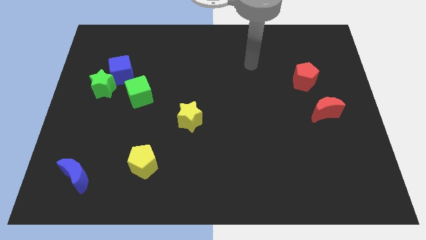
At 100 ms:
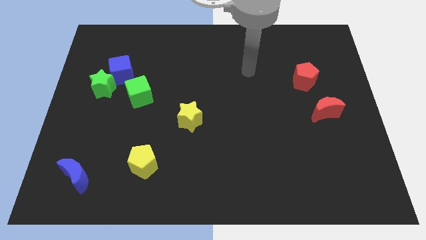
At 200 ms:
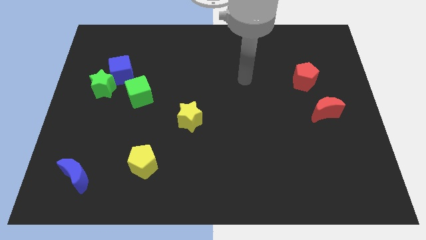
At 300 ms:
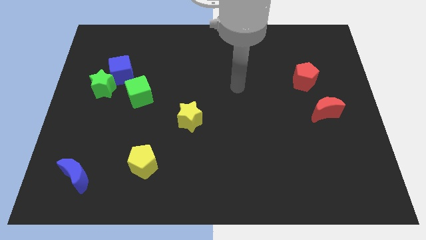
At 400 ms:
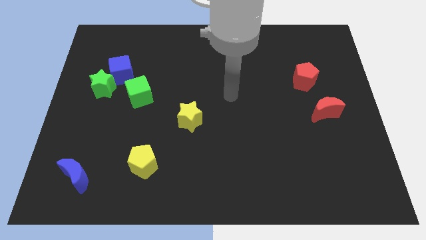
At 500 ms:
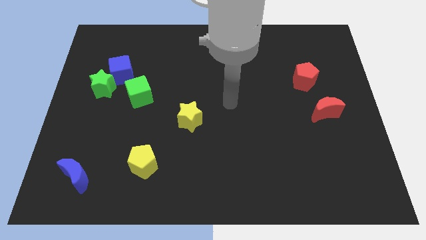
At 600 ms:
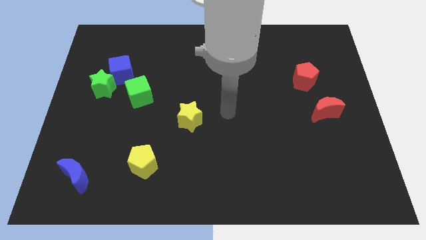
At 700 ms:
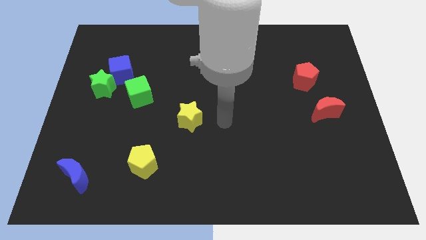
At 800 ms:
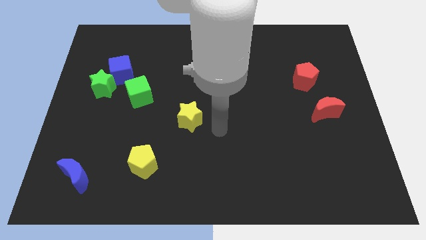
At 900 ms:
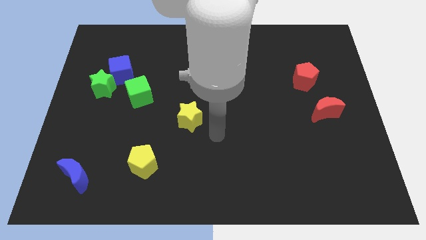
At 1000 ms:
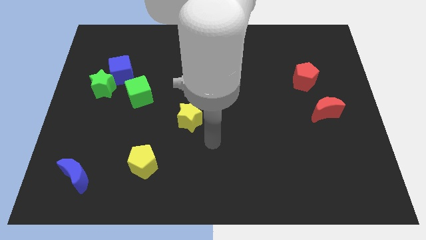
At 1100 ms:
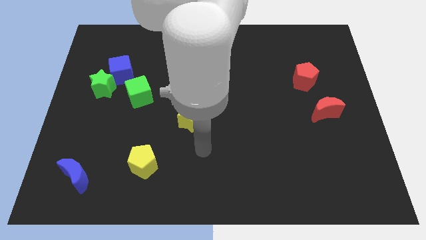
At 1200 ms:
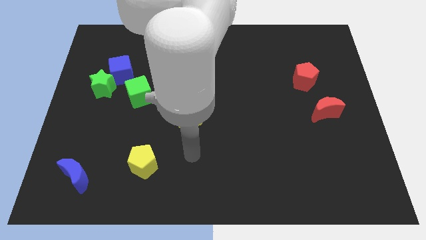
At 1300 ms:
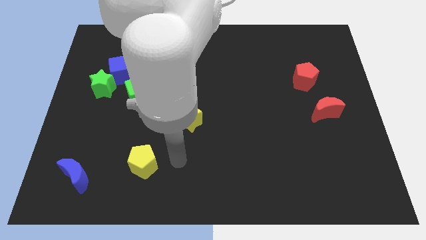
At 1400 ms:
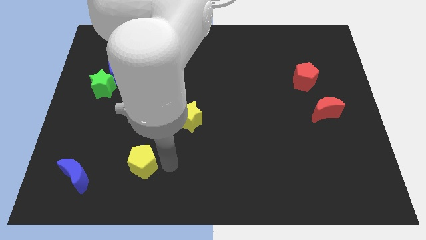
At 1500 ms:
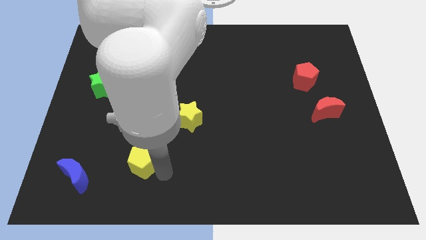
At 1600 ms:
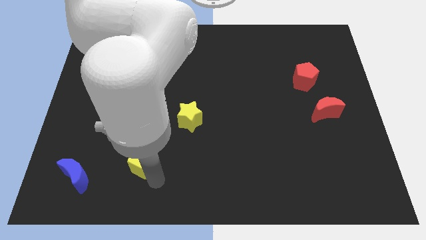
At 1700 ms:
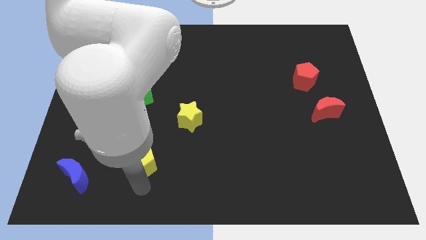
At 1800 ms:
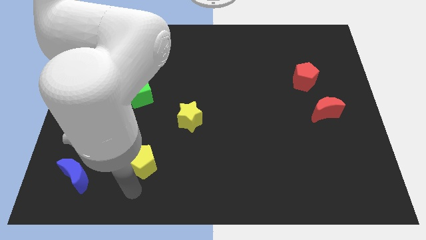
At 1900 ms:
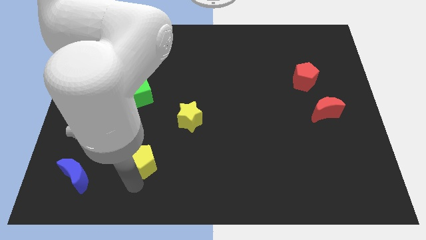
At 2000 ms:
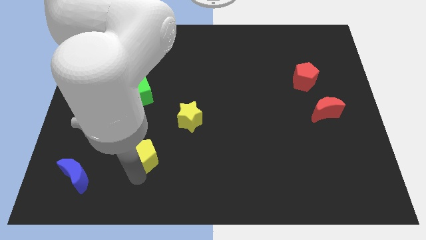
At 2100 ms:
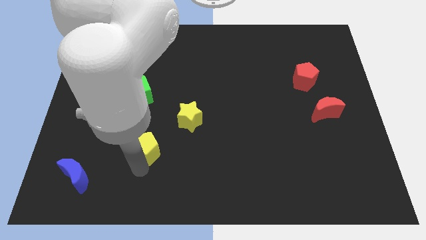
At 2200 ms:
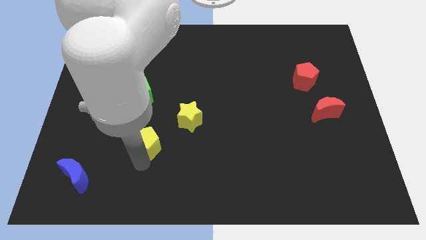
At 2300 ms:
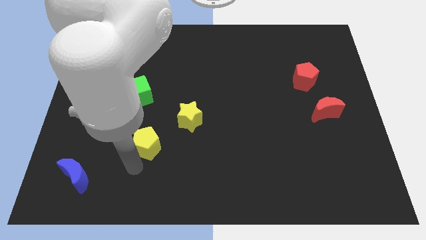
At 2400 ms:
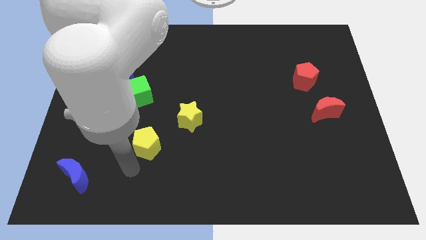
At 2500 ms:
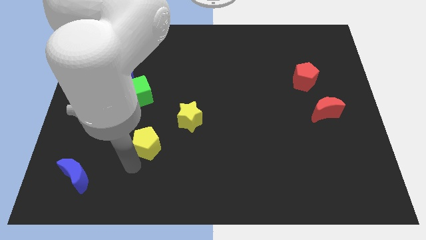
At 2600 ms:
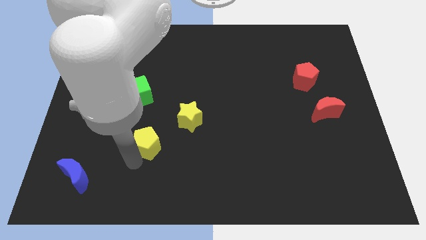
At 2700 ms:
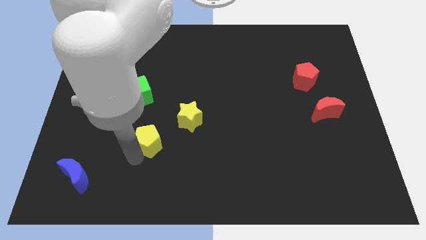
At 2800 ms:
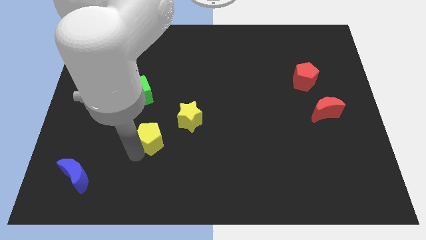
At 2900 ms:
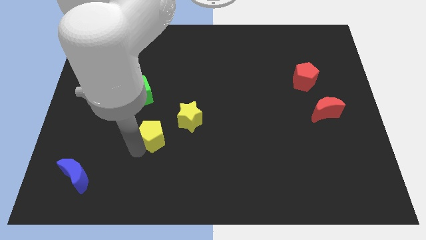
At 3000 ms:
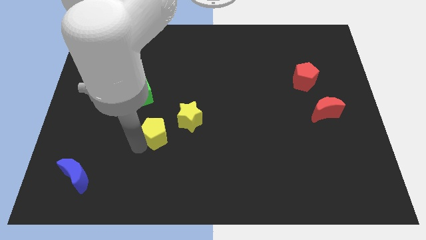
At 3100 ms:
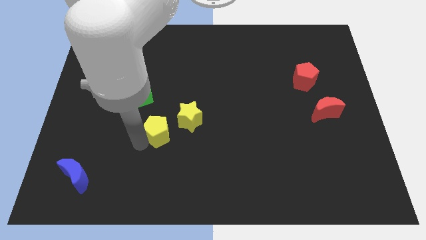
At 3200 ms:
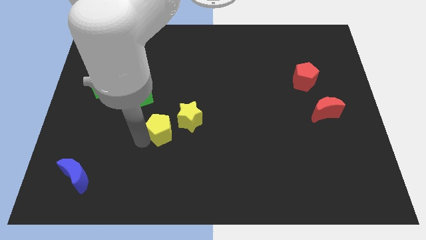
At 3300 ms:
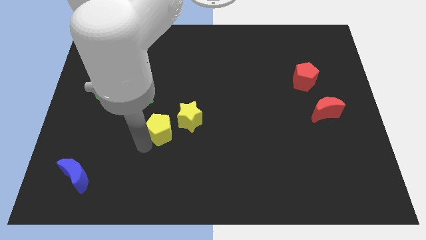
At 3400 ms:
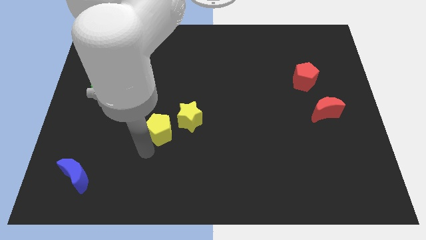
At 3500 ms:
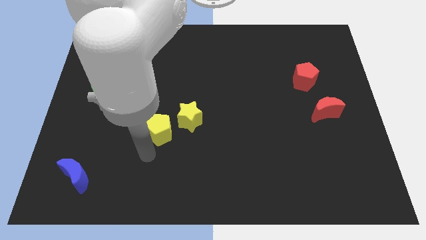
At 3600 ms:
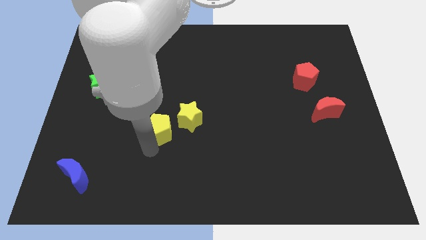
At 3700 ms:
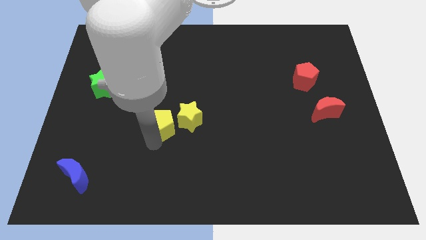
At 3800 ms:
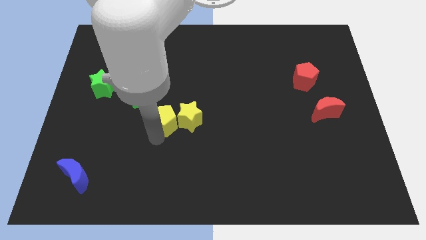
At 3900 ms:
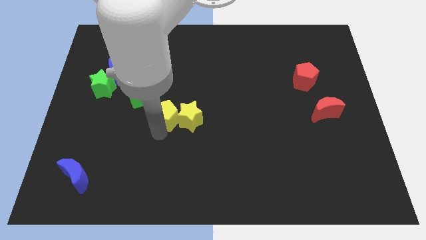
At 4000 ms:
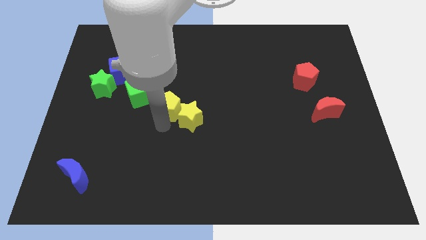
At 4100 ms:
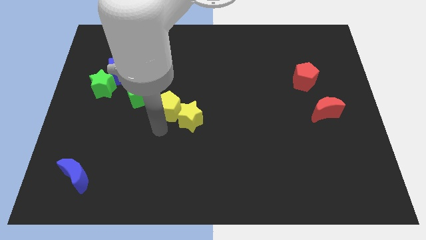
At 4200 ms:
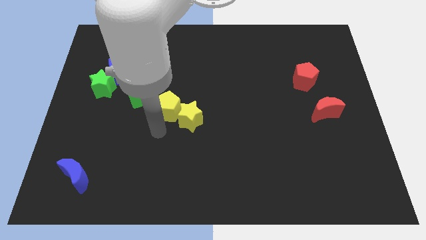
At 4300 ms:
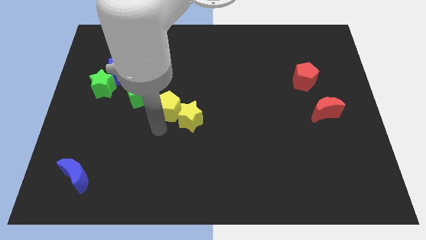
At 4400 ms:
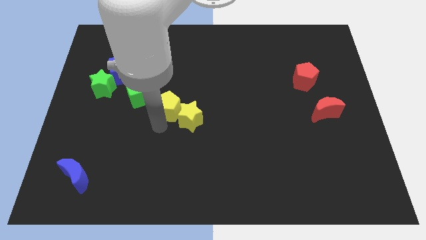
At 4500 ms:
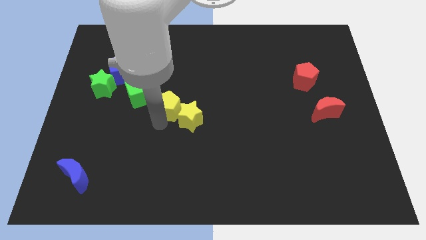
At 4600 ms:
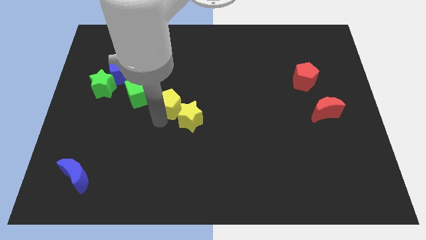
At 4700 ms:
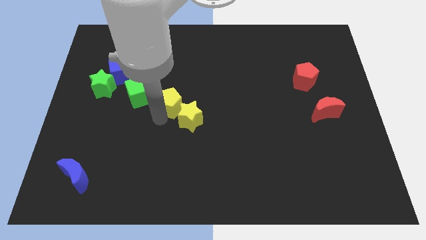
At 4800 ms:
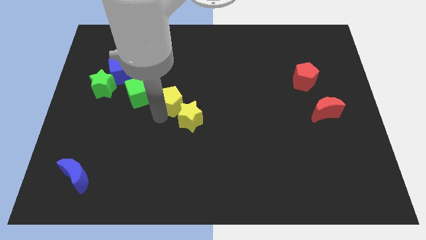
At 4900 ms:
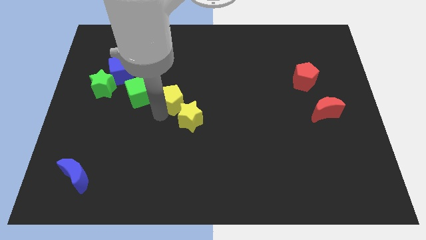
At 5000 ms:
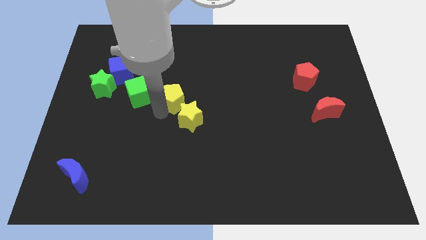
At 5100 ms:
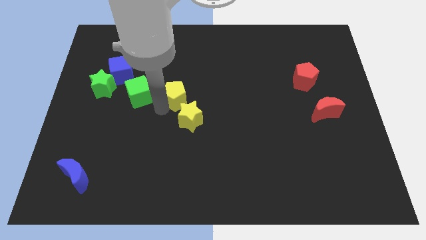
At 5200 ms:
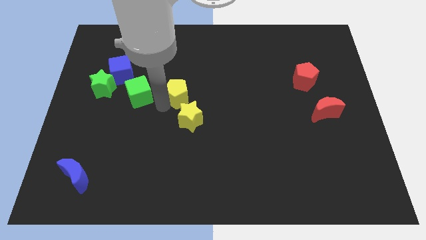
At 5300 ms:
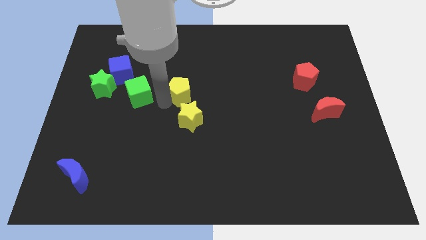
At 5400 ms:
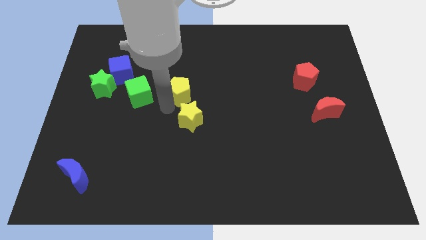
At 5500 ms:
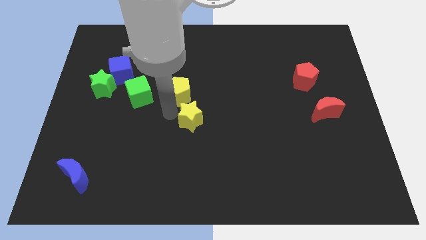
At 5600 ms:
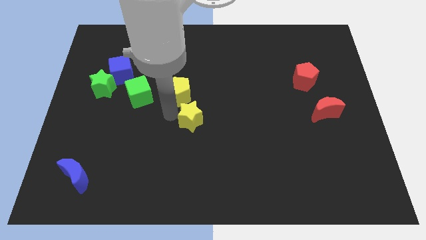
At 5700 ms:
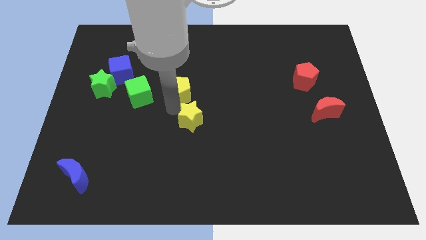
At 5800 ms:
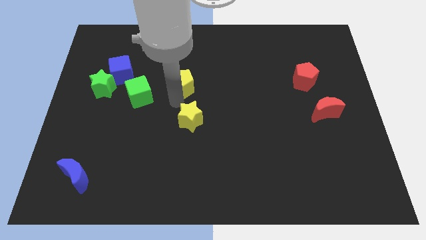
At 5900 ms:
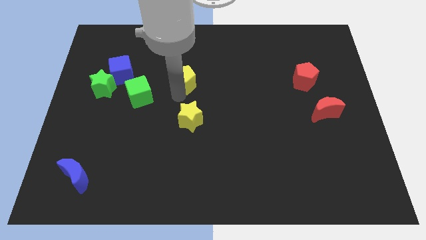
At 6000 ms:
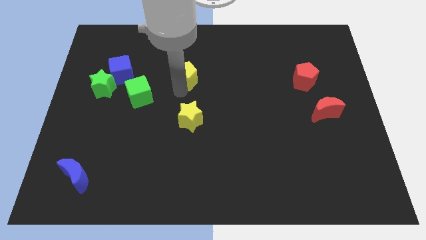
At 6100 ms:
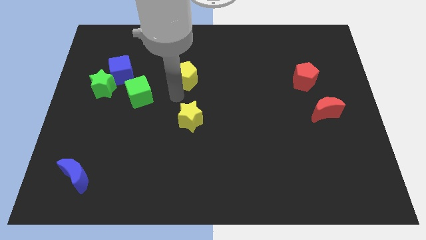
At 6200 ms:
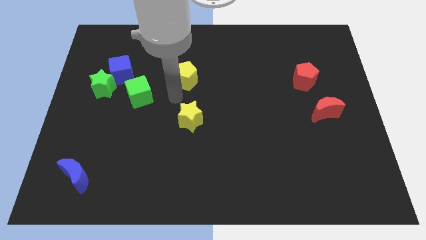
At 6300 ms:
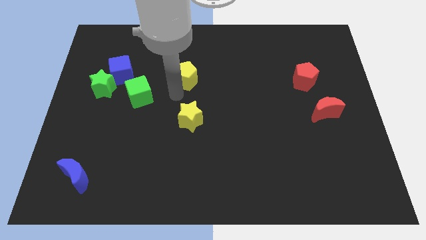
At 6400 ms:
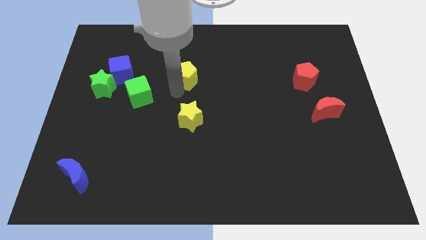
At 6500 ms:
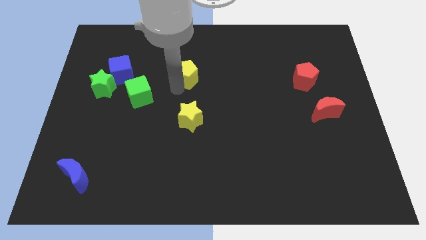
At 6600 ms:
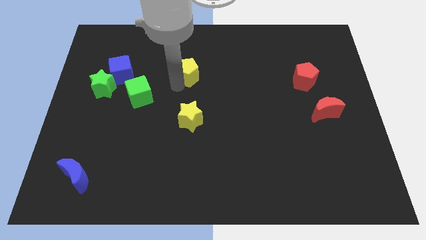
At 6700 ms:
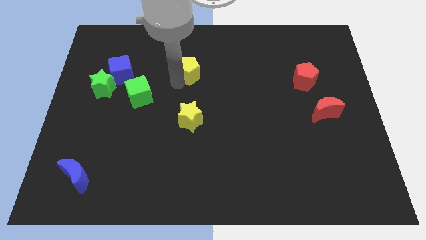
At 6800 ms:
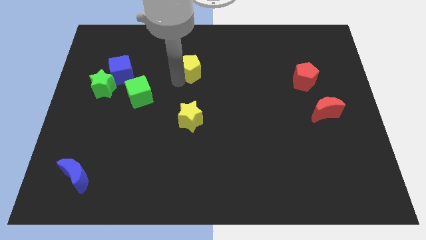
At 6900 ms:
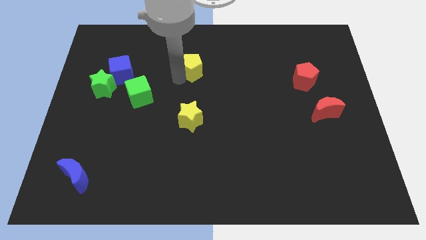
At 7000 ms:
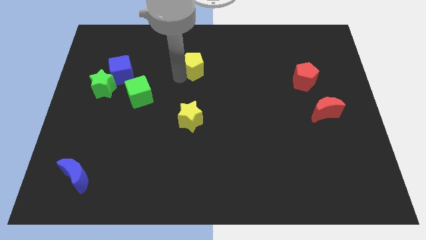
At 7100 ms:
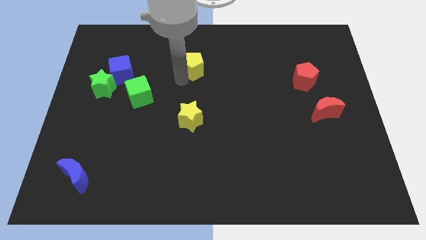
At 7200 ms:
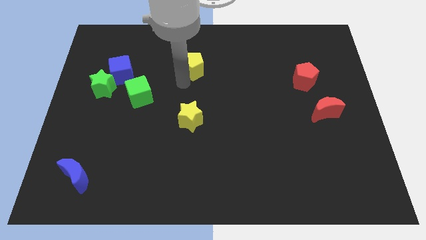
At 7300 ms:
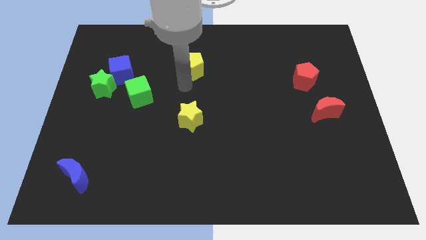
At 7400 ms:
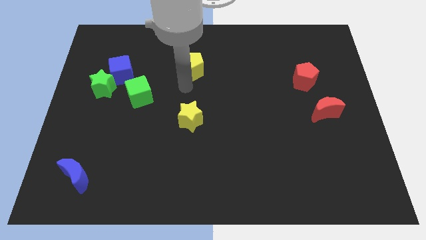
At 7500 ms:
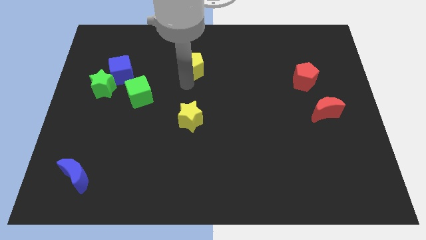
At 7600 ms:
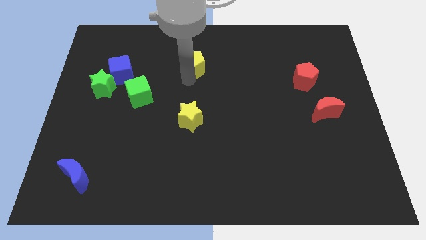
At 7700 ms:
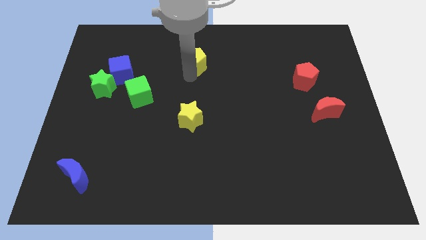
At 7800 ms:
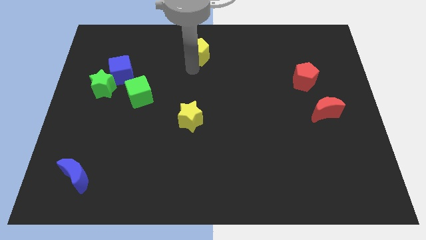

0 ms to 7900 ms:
put the yellow pentagon to the top
